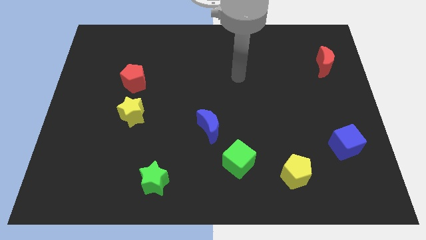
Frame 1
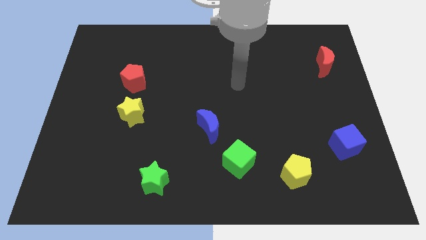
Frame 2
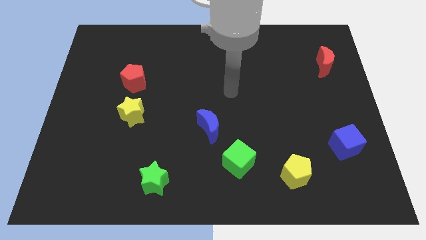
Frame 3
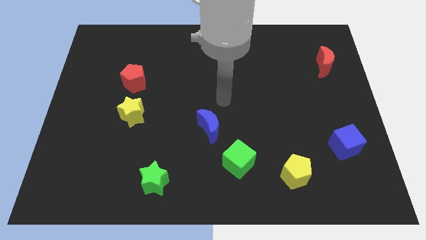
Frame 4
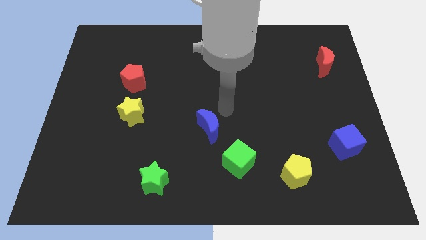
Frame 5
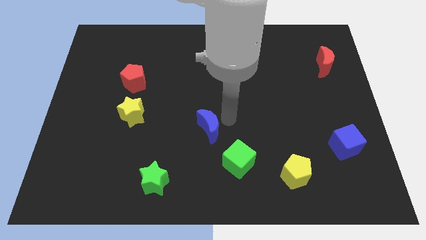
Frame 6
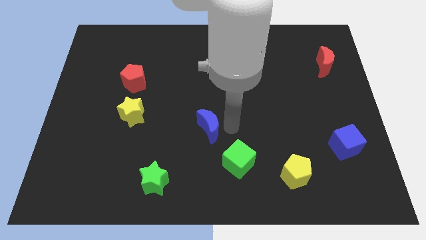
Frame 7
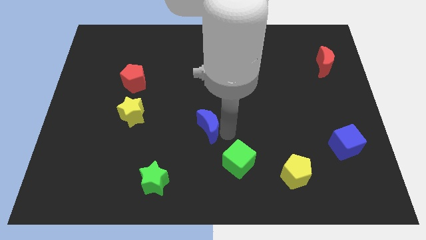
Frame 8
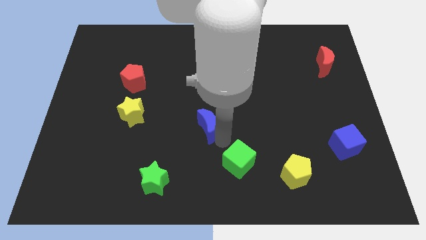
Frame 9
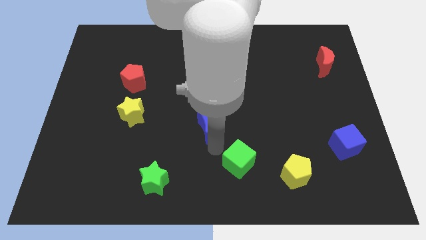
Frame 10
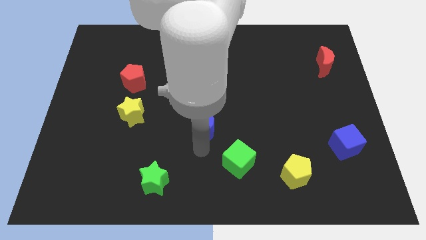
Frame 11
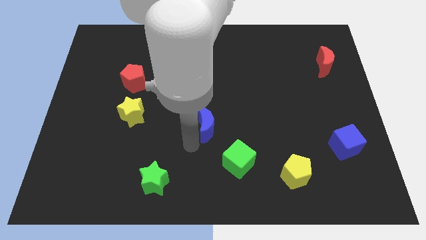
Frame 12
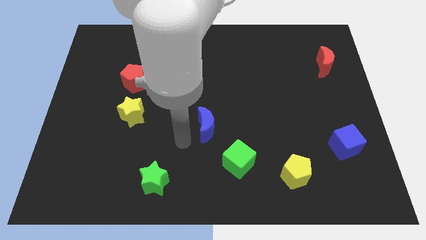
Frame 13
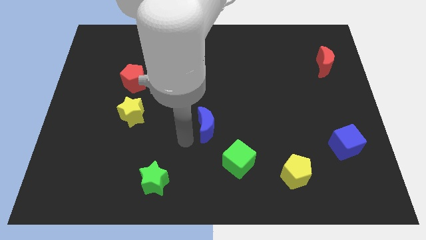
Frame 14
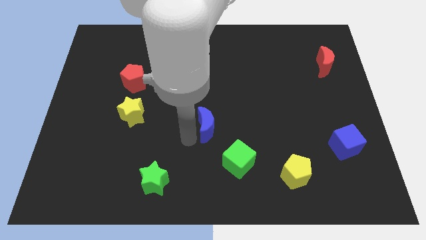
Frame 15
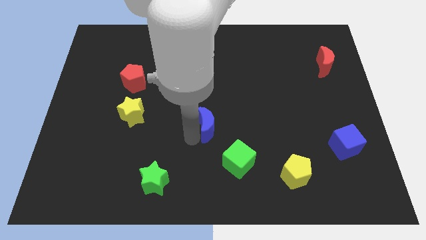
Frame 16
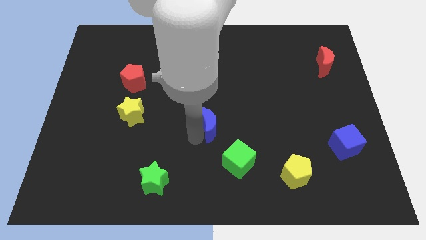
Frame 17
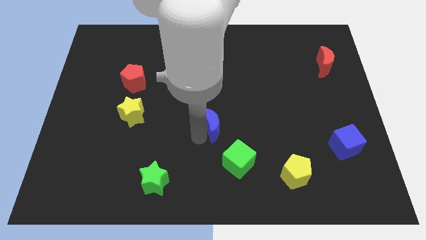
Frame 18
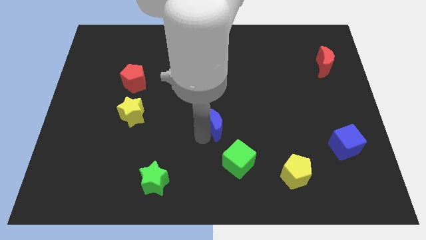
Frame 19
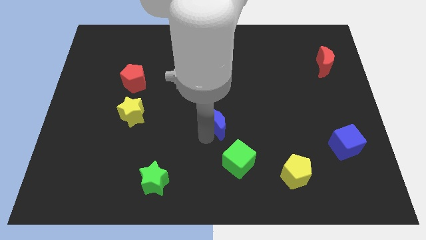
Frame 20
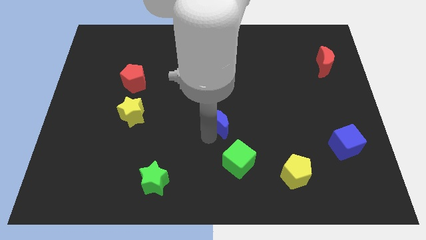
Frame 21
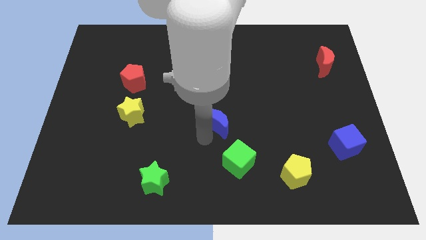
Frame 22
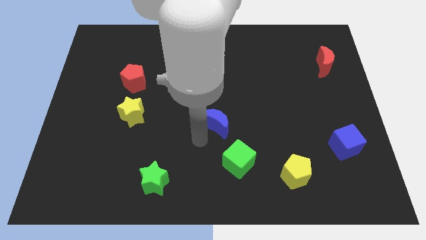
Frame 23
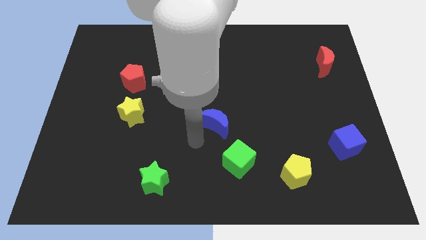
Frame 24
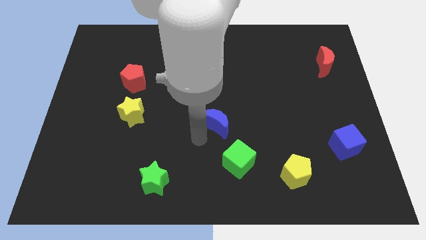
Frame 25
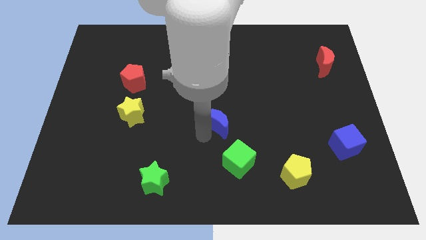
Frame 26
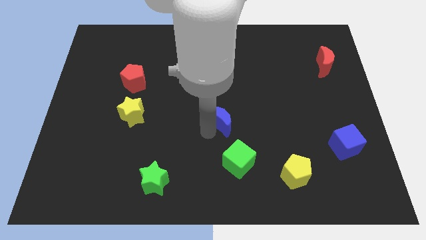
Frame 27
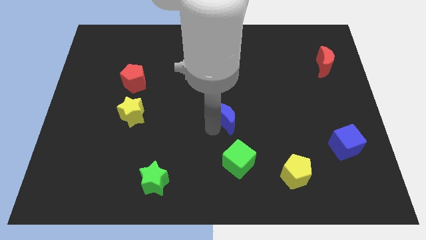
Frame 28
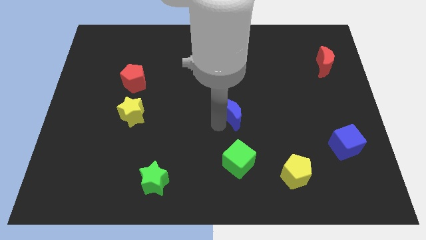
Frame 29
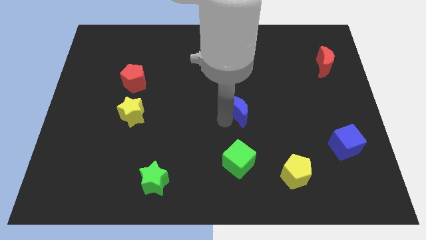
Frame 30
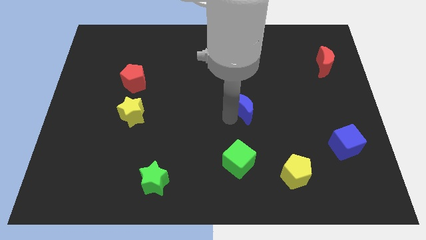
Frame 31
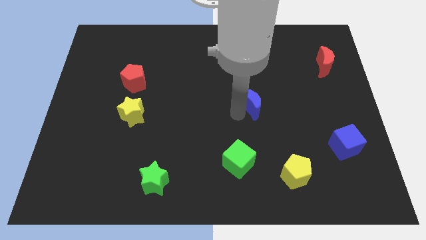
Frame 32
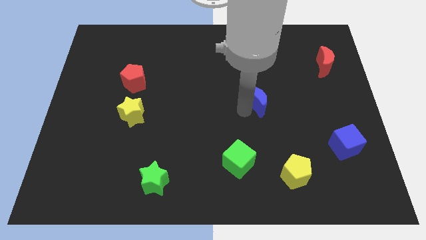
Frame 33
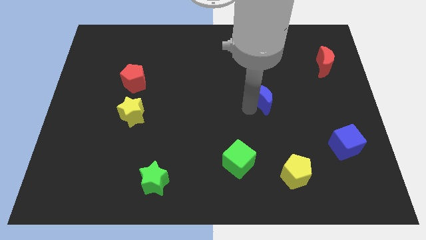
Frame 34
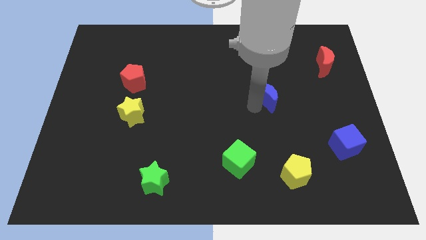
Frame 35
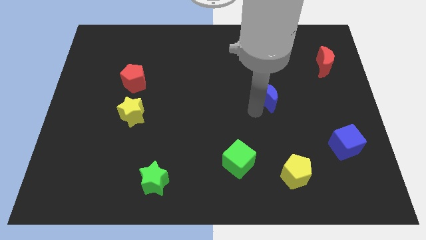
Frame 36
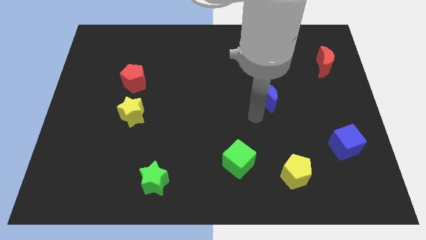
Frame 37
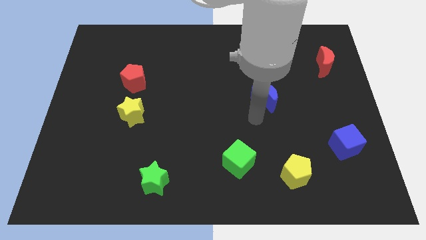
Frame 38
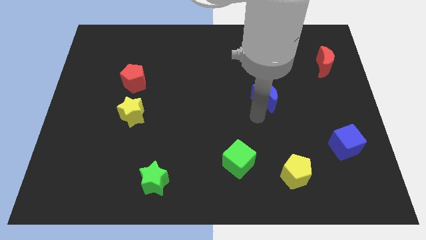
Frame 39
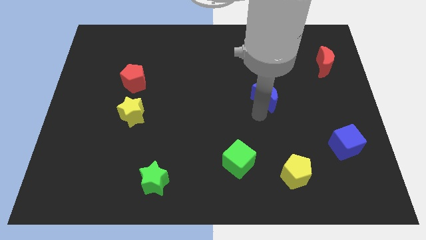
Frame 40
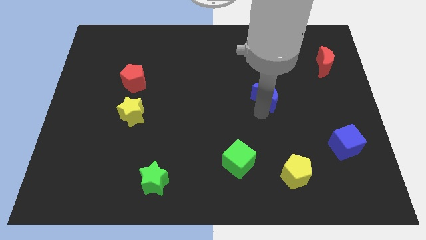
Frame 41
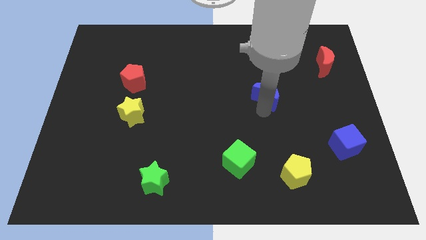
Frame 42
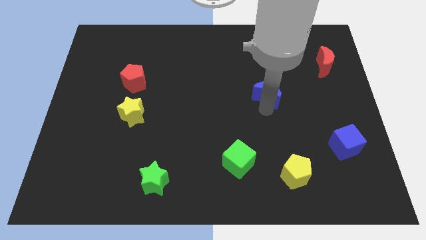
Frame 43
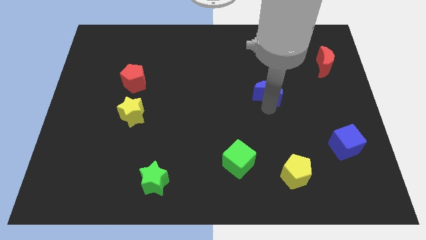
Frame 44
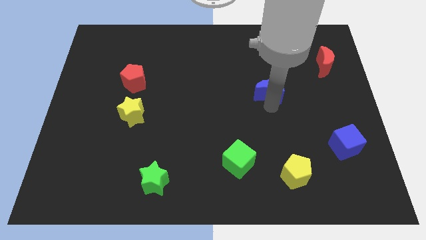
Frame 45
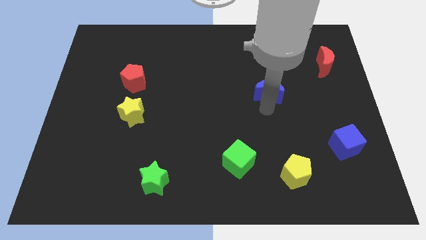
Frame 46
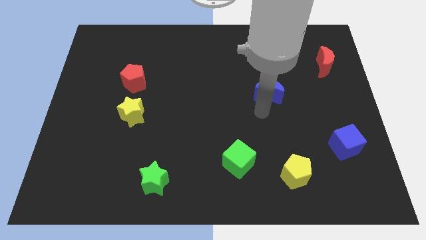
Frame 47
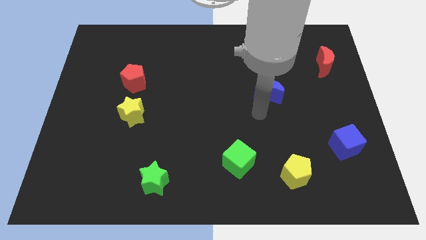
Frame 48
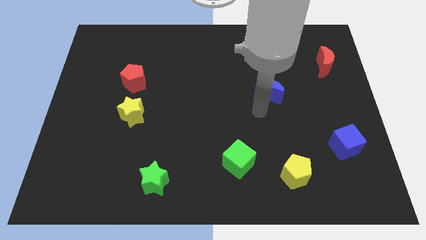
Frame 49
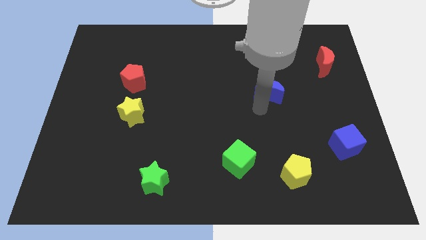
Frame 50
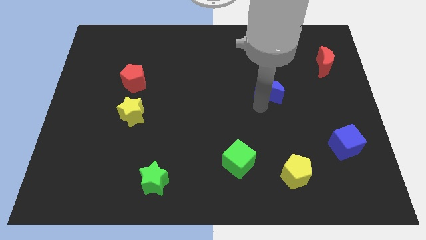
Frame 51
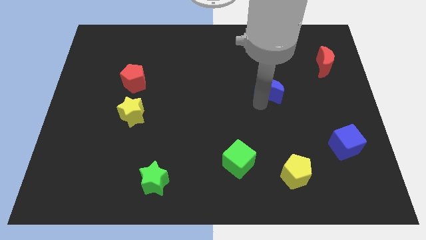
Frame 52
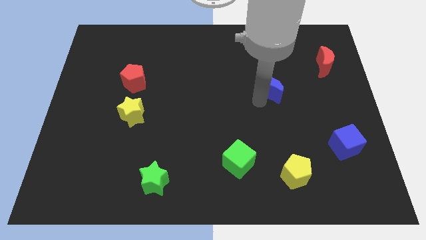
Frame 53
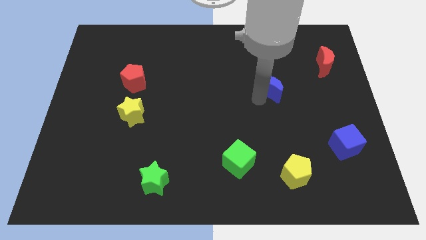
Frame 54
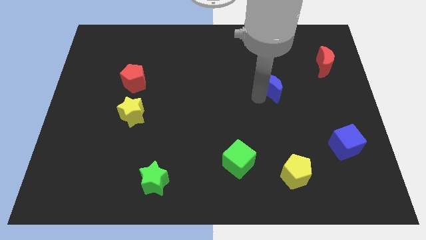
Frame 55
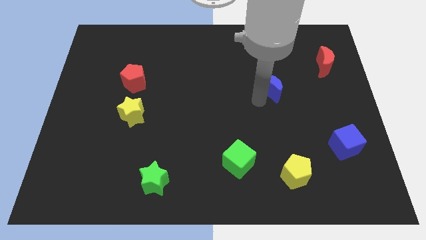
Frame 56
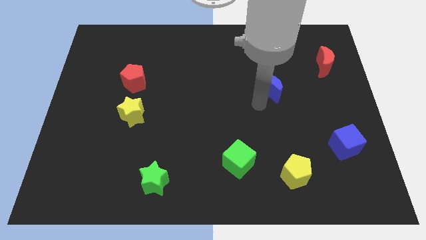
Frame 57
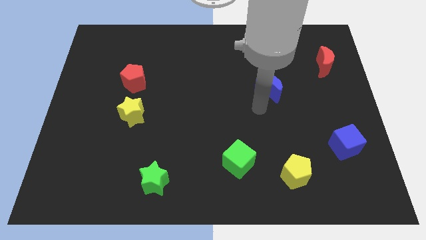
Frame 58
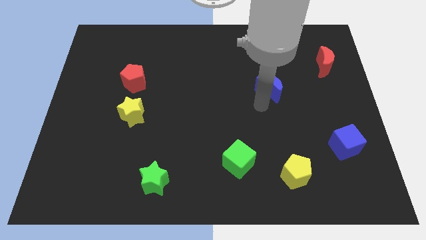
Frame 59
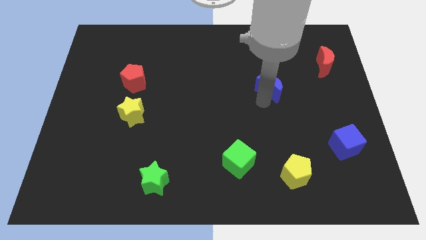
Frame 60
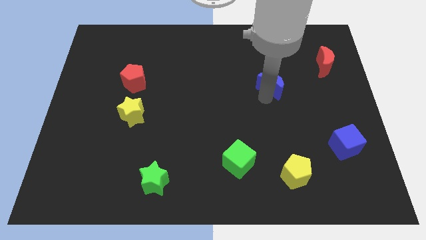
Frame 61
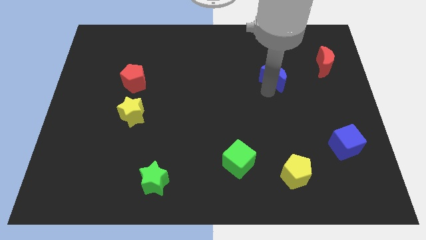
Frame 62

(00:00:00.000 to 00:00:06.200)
push the blue moon upwards and then right

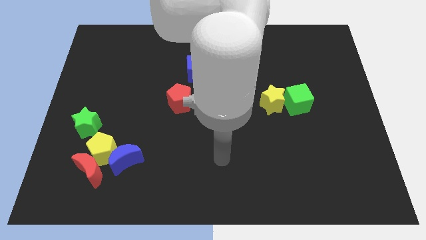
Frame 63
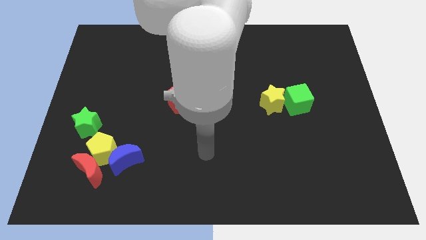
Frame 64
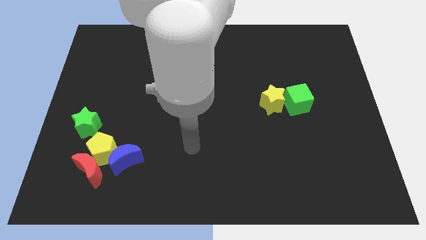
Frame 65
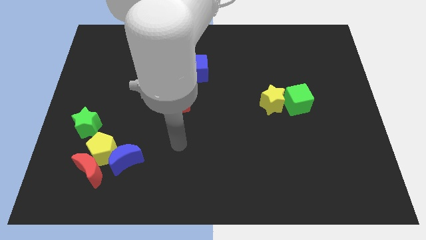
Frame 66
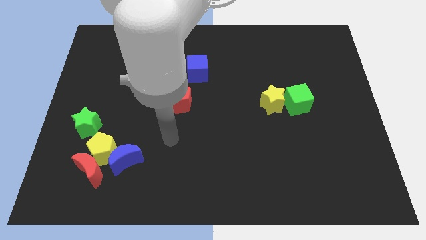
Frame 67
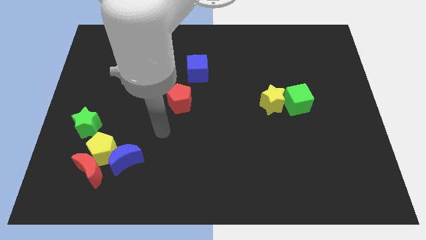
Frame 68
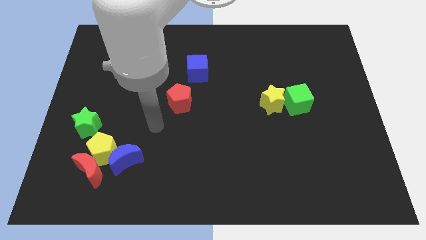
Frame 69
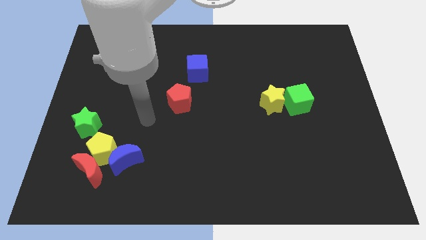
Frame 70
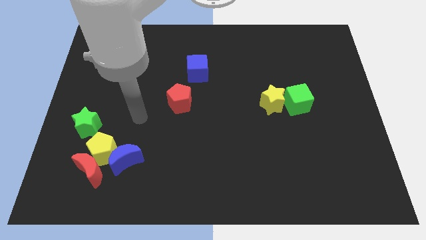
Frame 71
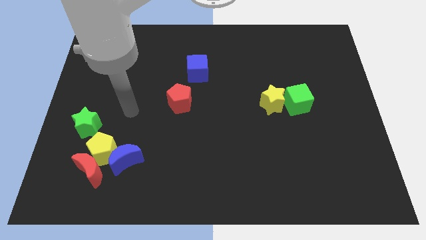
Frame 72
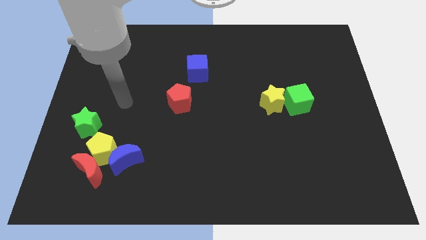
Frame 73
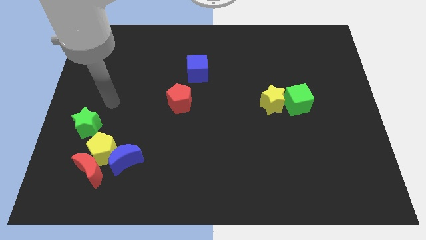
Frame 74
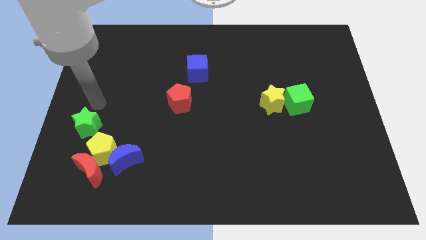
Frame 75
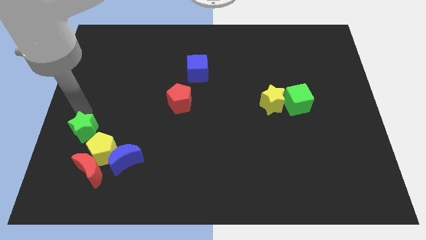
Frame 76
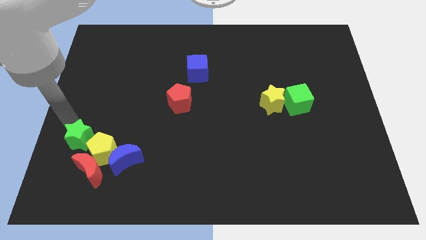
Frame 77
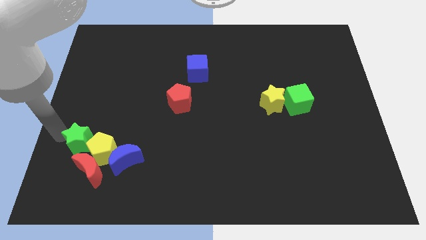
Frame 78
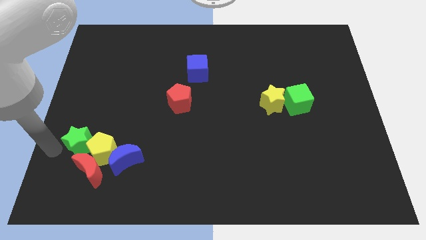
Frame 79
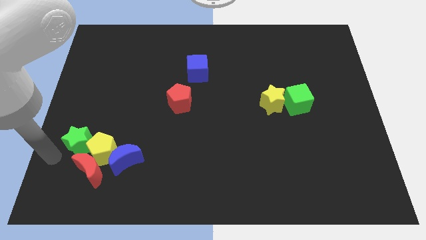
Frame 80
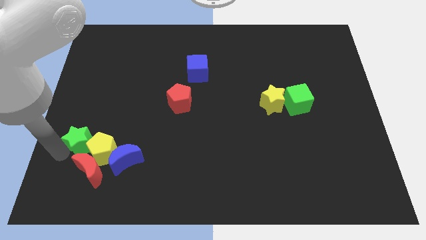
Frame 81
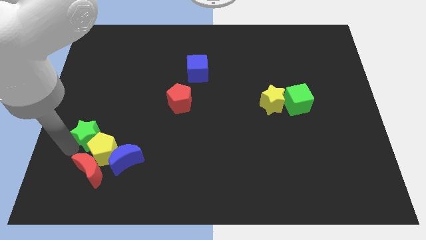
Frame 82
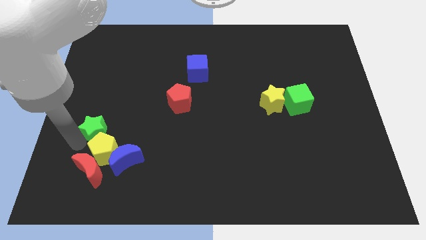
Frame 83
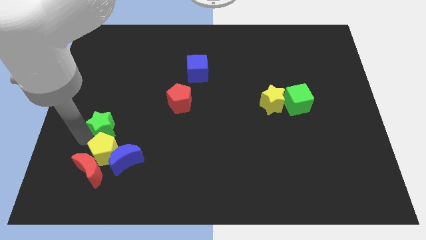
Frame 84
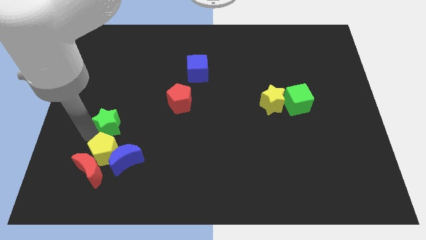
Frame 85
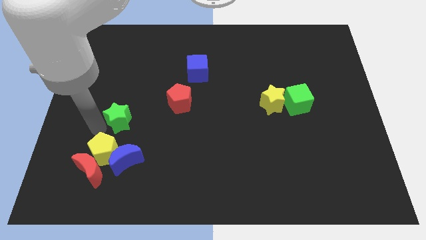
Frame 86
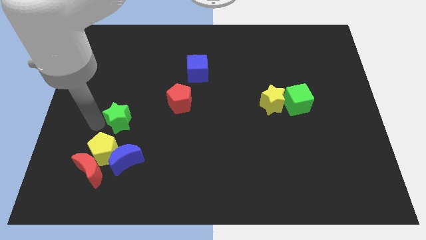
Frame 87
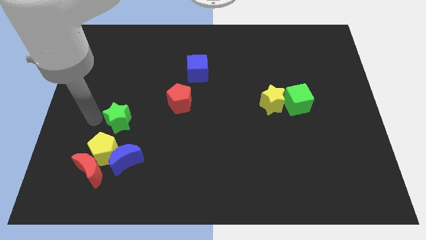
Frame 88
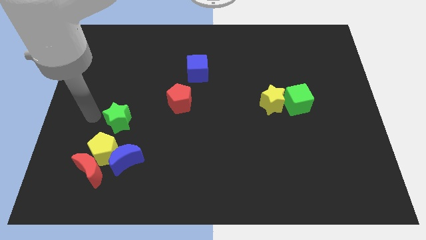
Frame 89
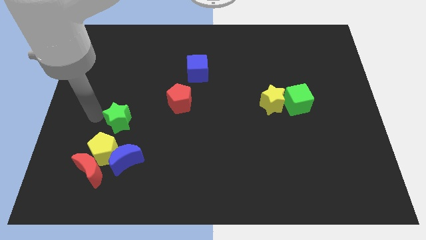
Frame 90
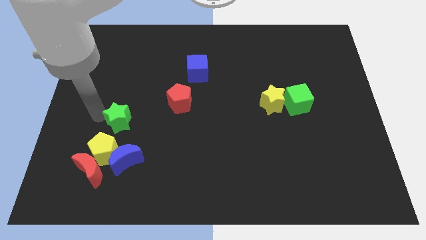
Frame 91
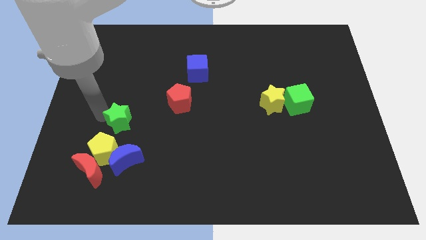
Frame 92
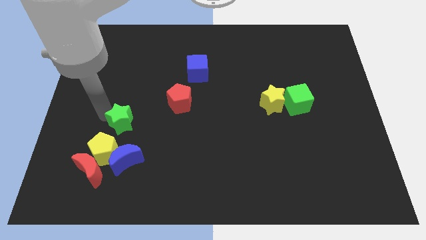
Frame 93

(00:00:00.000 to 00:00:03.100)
move the green star a little bit right
